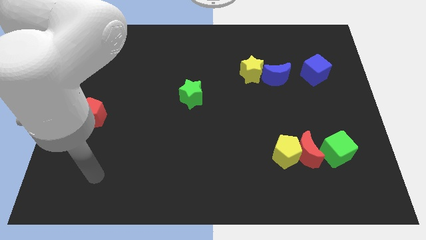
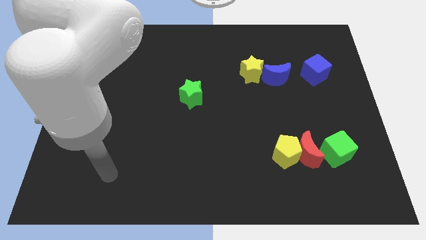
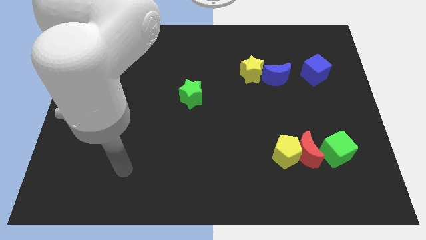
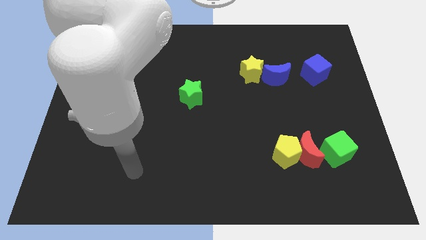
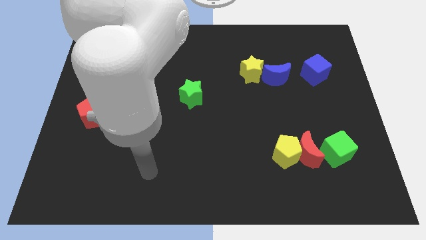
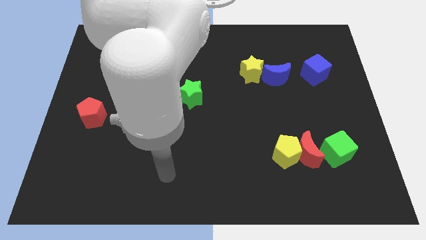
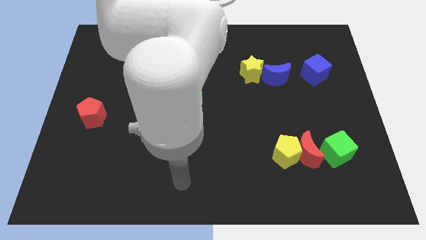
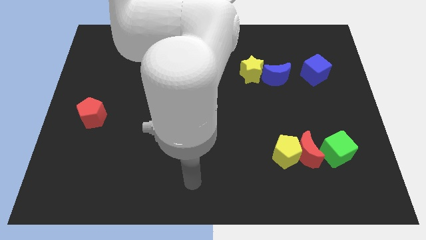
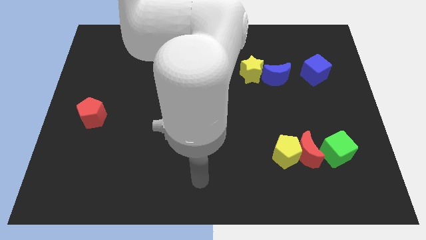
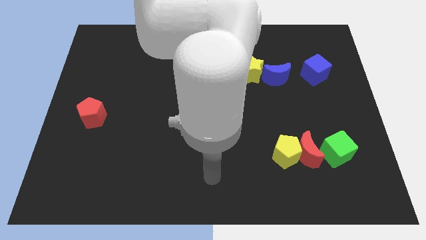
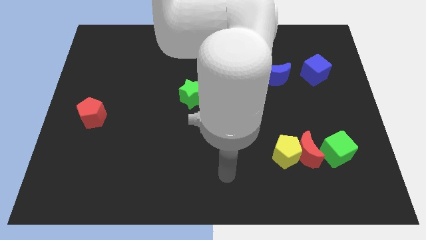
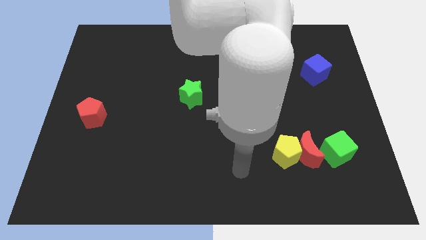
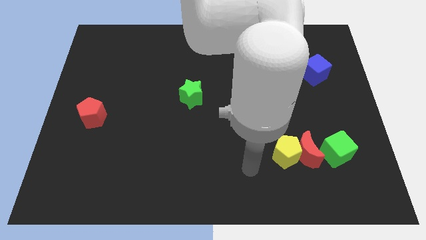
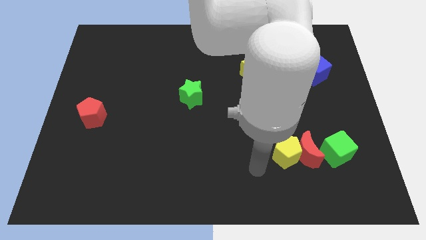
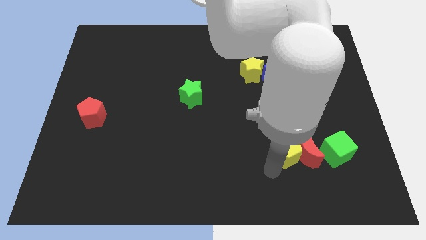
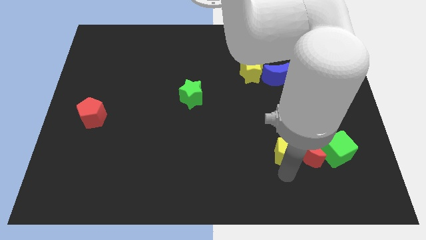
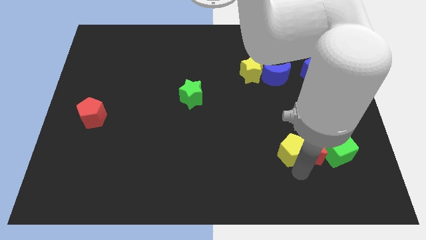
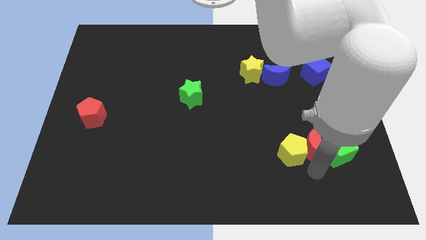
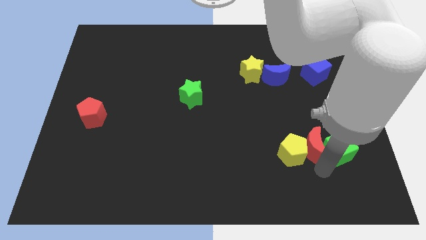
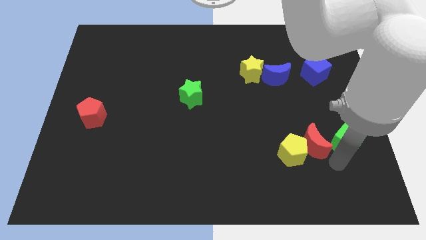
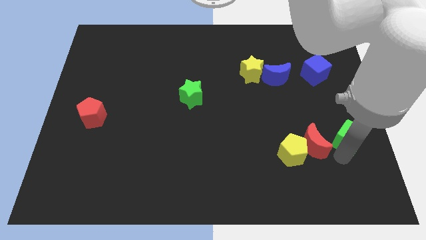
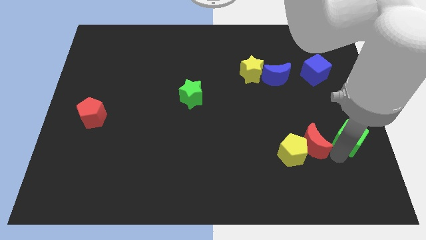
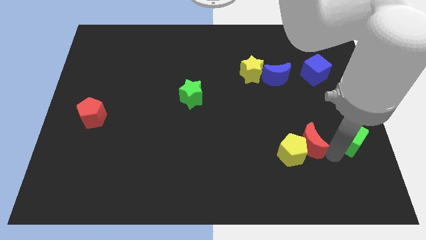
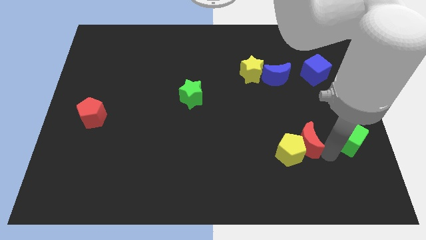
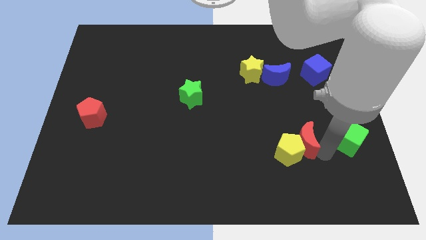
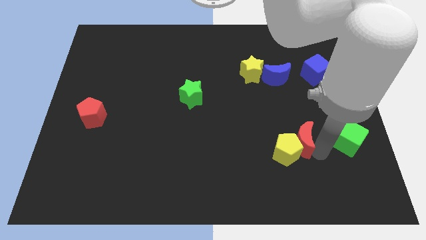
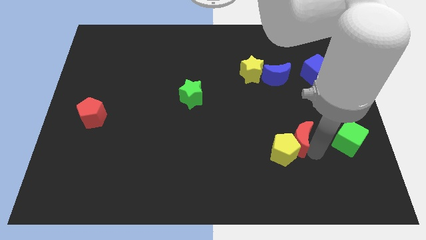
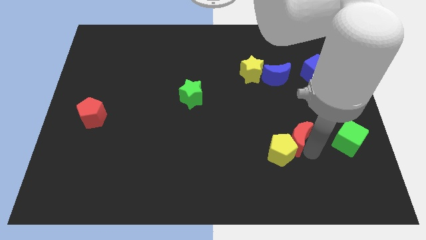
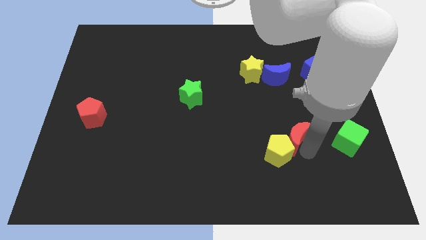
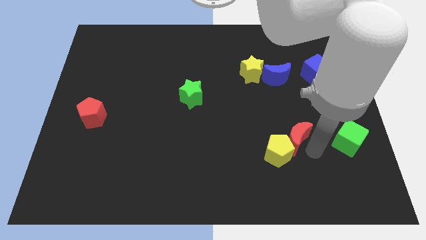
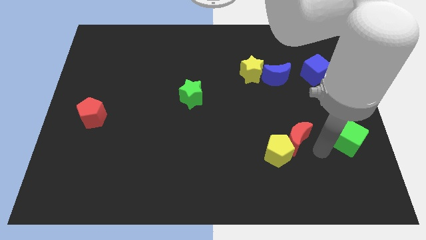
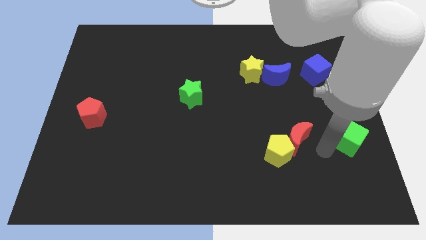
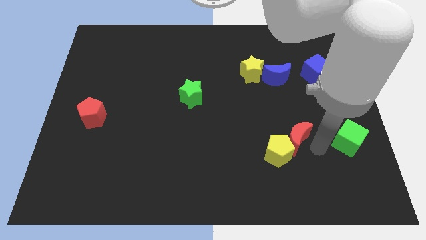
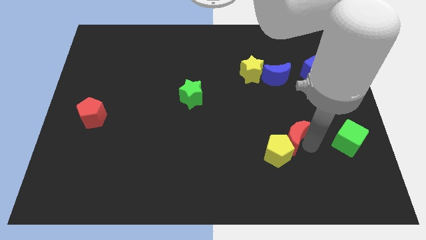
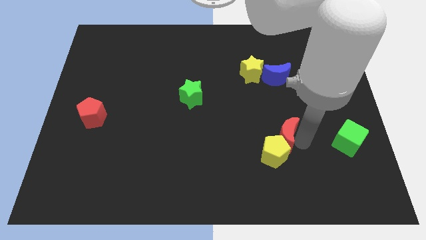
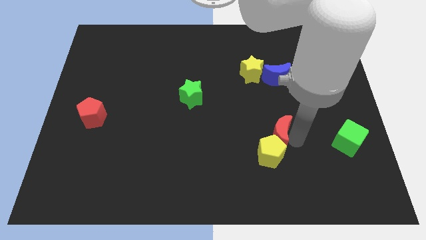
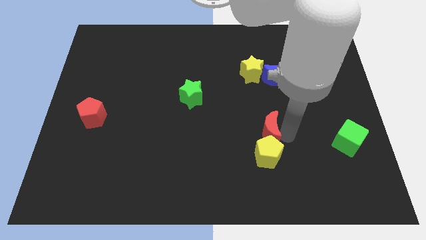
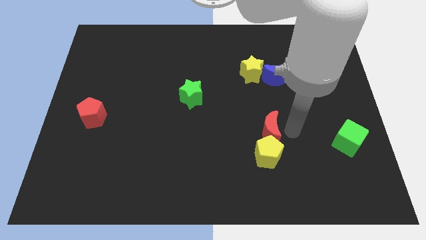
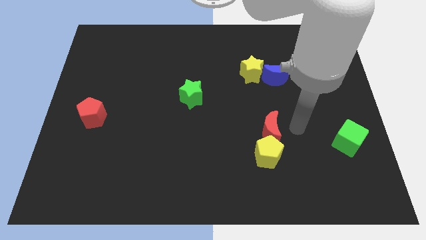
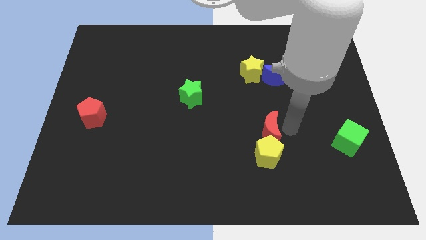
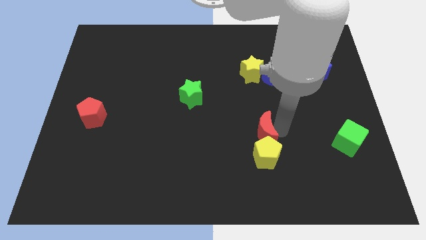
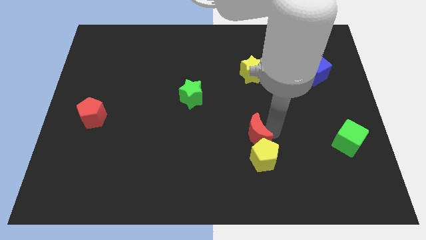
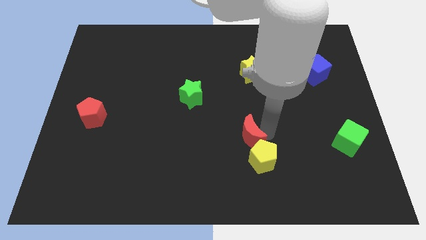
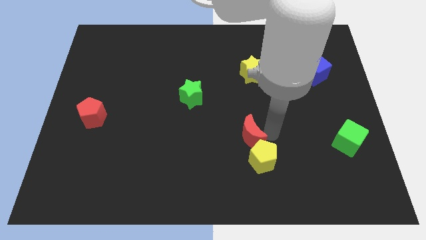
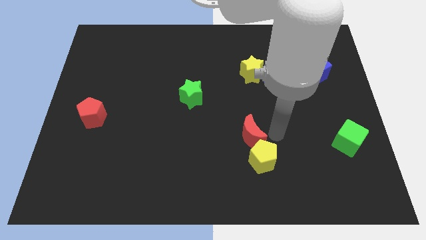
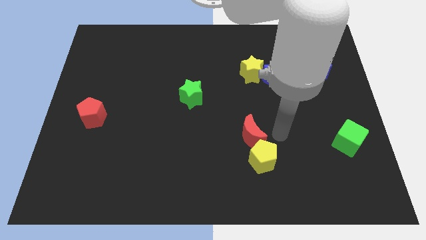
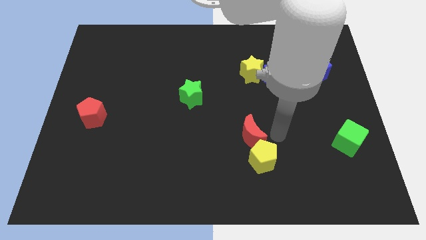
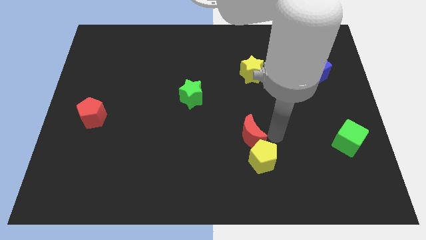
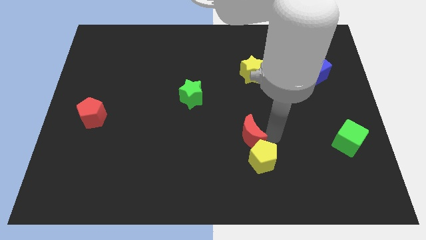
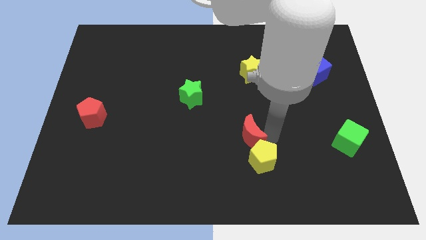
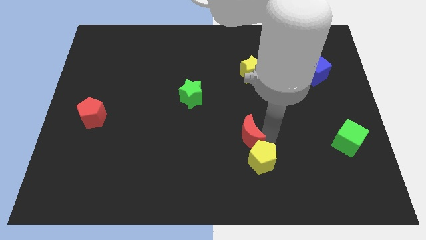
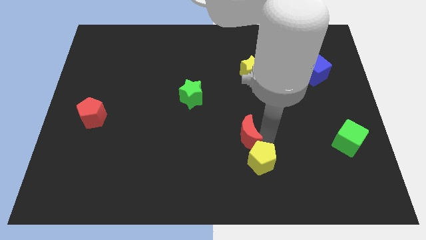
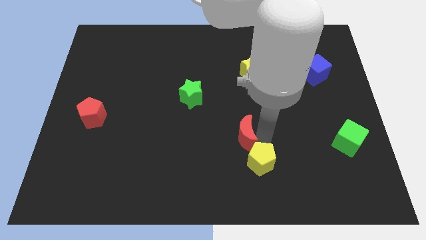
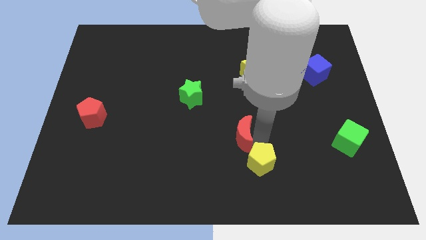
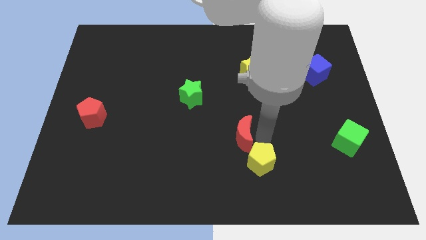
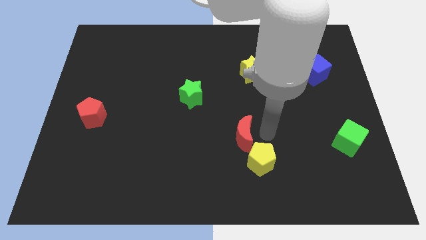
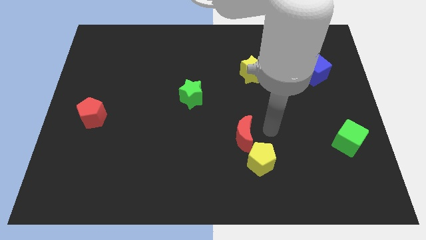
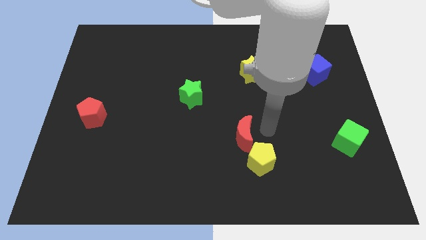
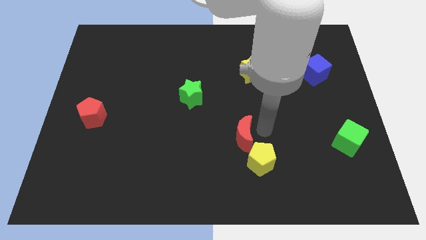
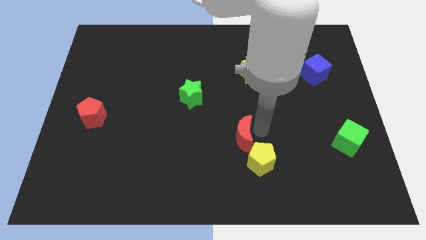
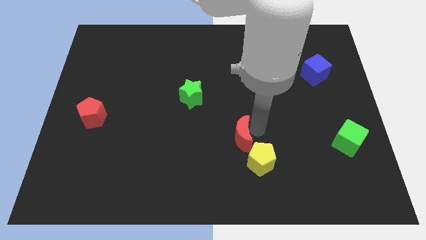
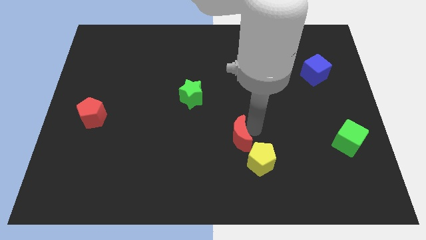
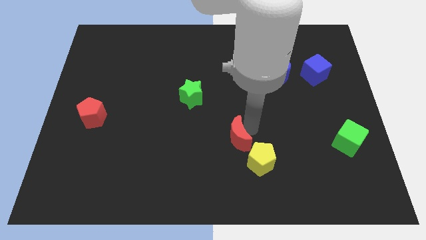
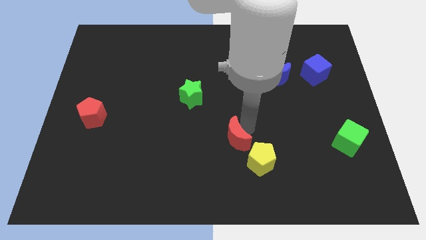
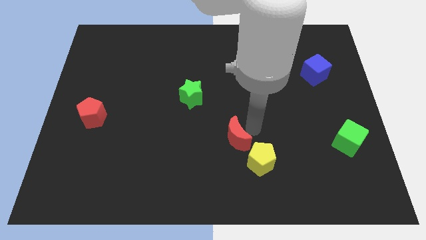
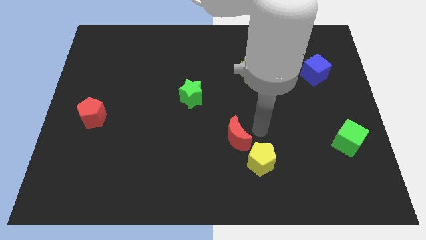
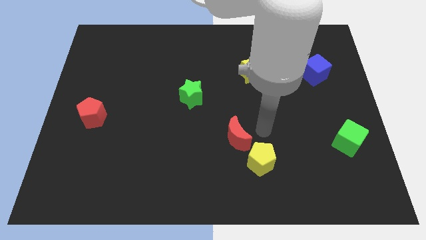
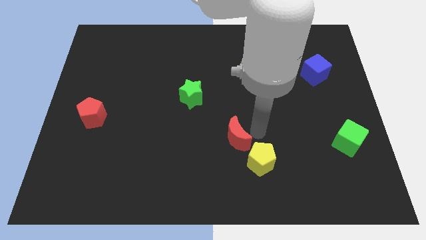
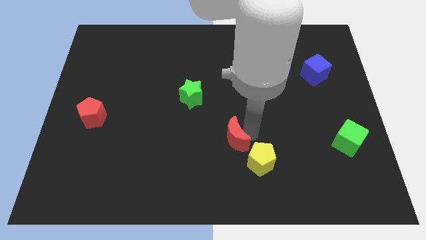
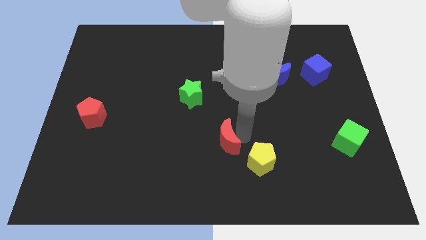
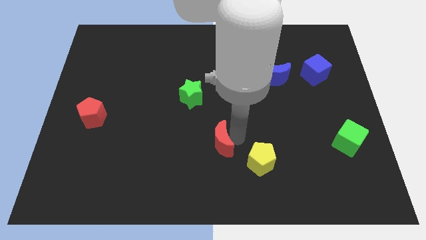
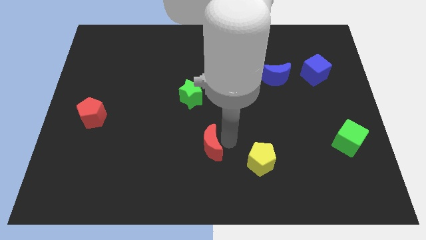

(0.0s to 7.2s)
push the red moon left

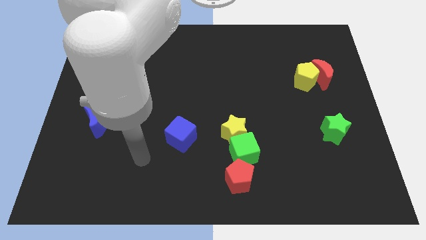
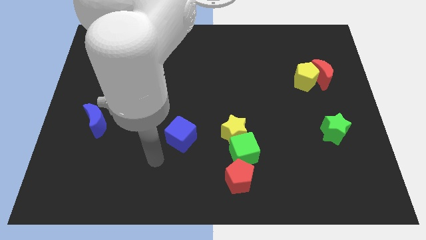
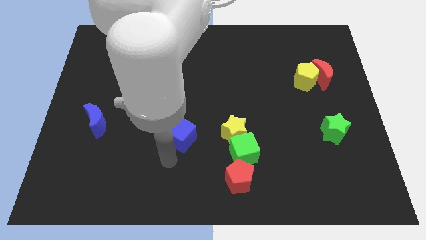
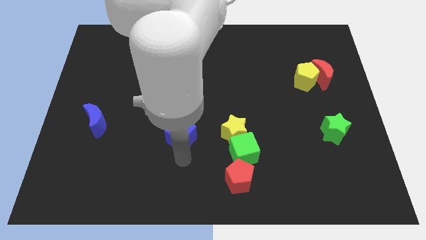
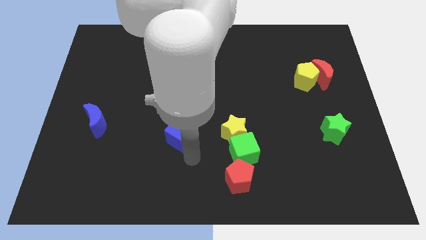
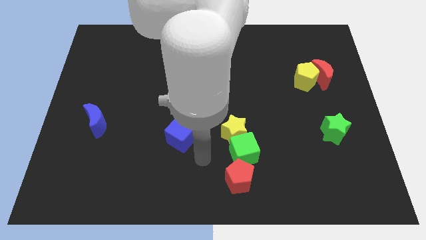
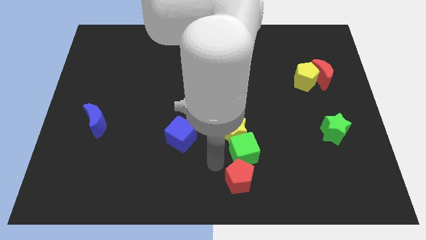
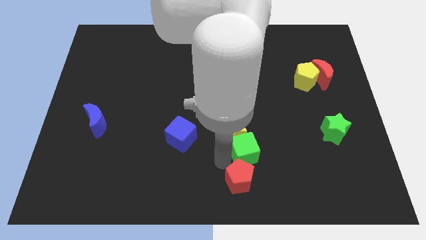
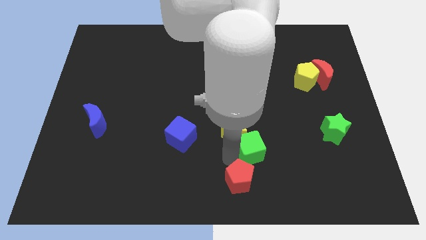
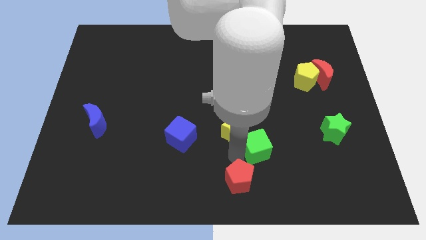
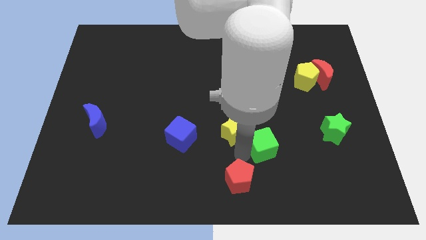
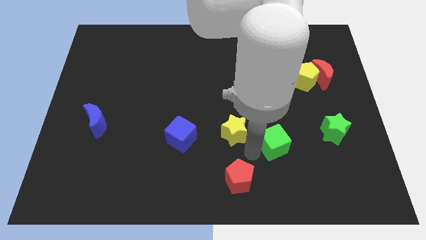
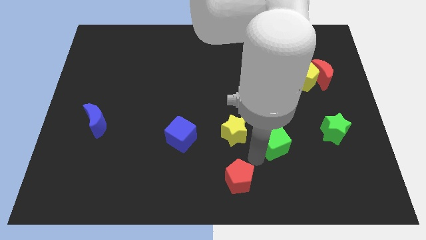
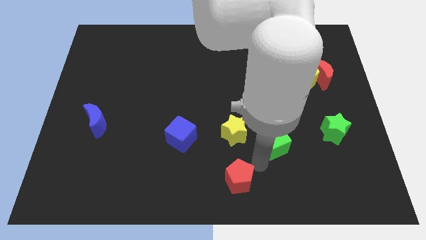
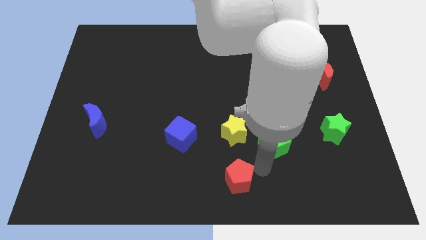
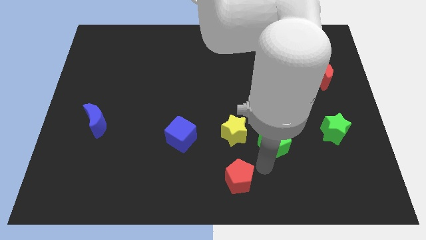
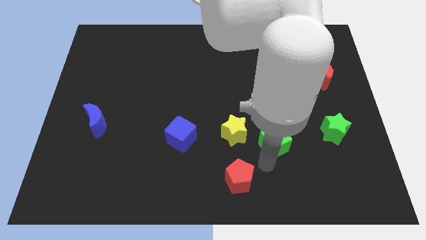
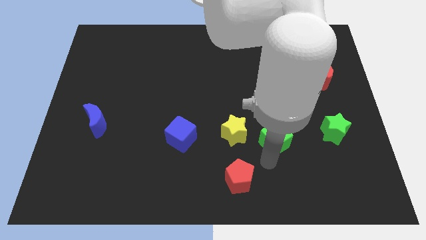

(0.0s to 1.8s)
slightly move the green cube upwards and then to the right
